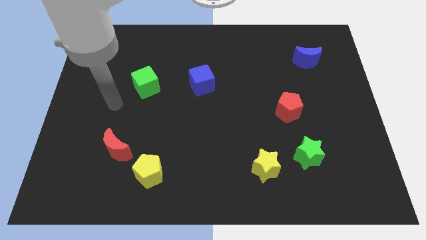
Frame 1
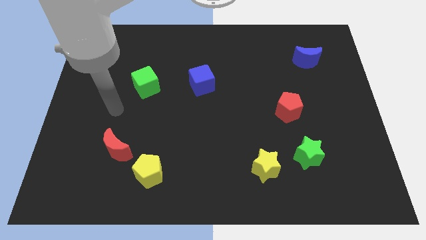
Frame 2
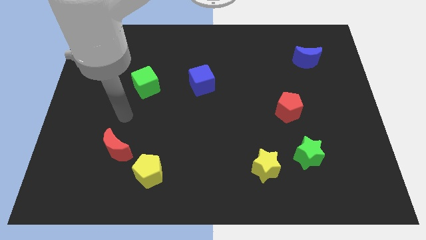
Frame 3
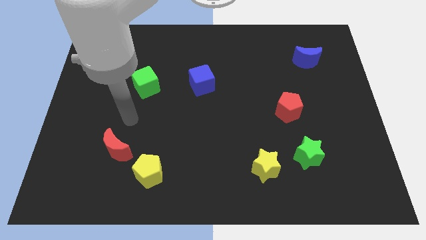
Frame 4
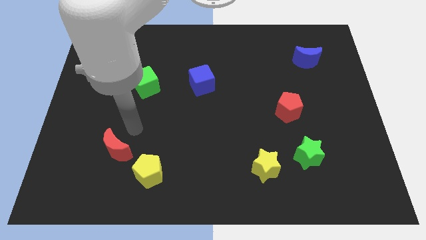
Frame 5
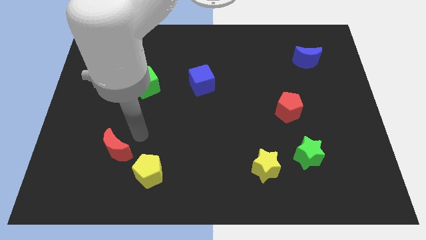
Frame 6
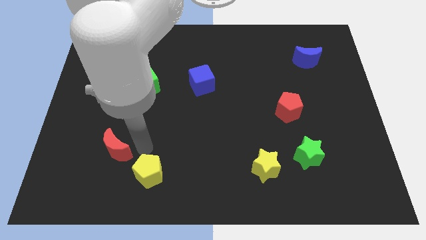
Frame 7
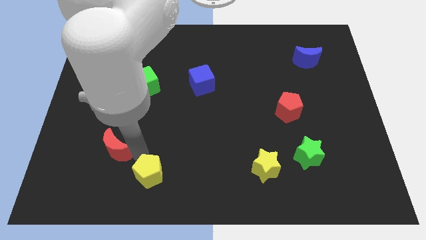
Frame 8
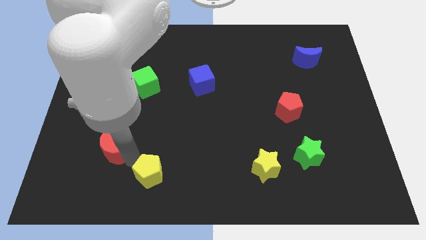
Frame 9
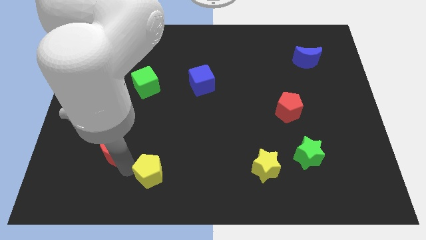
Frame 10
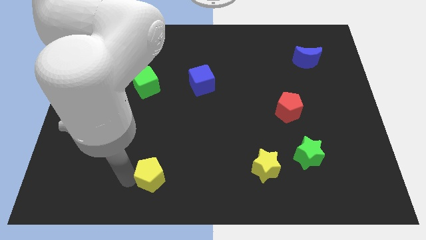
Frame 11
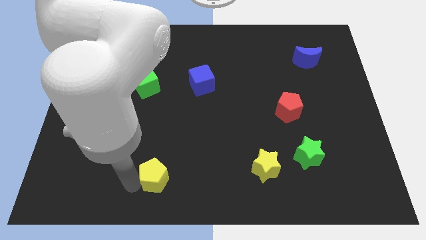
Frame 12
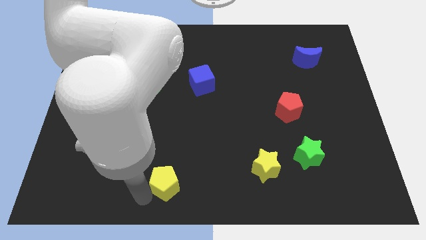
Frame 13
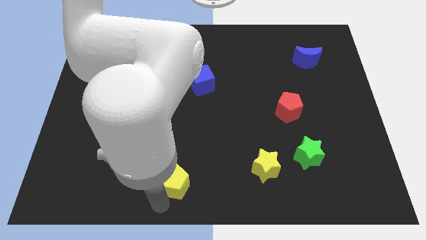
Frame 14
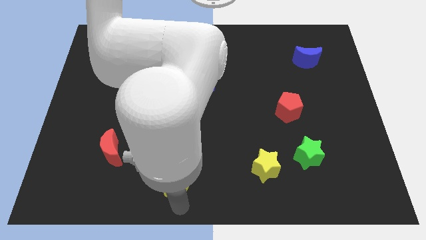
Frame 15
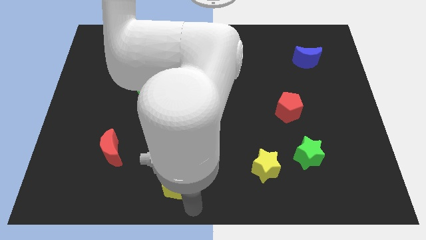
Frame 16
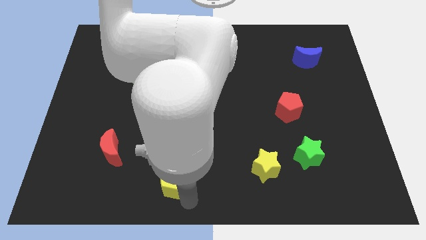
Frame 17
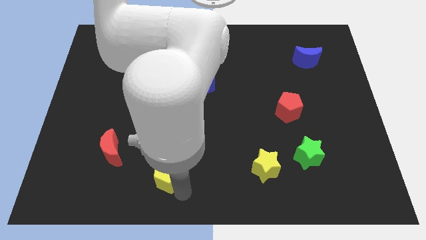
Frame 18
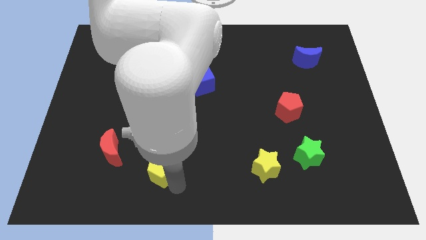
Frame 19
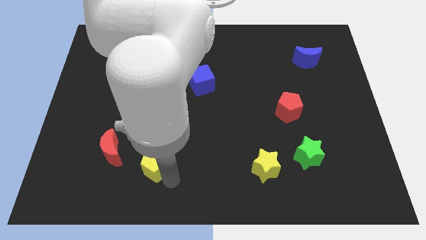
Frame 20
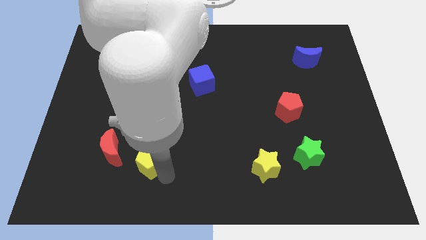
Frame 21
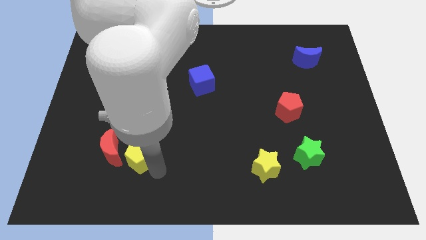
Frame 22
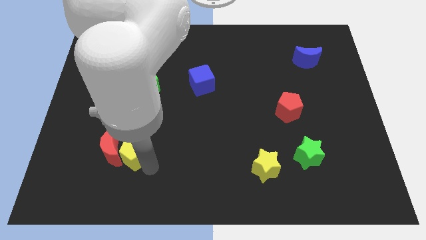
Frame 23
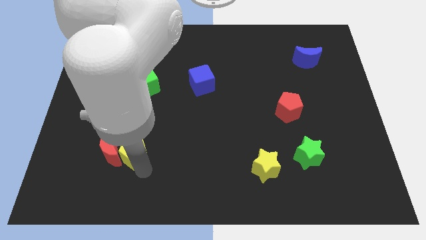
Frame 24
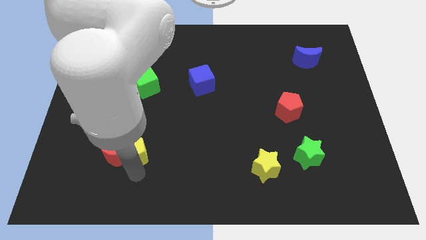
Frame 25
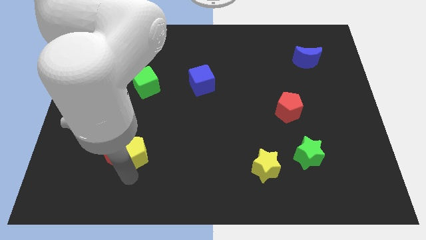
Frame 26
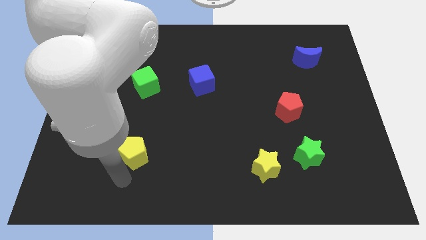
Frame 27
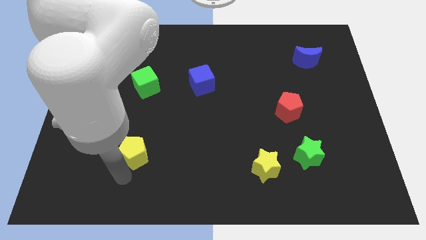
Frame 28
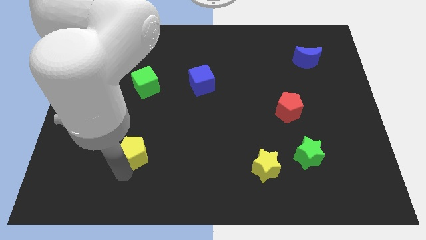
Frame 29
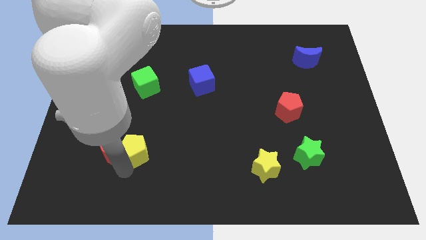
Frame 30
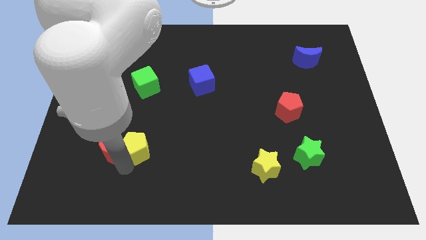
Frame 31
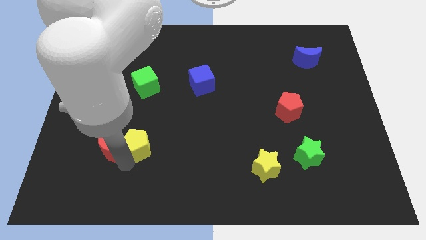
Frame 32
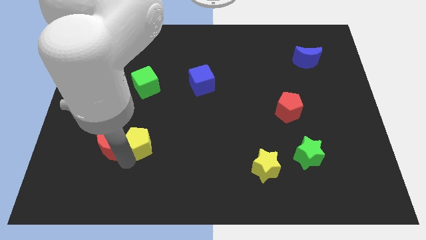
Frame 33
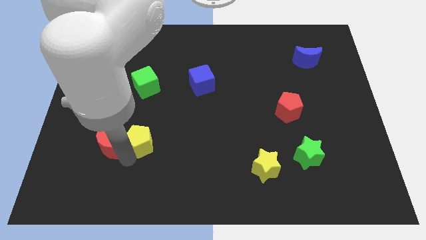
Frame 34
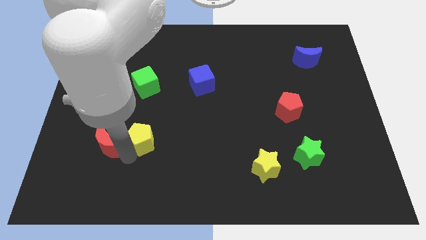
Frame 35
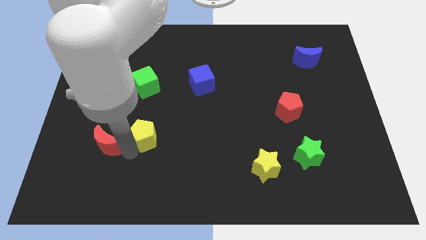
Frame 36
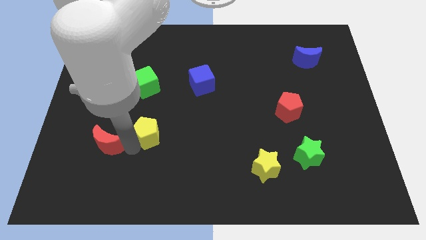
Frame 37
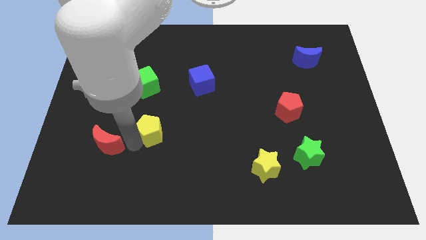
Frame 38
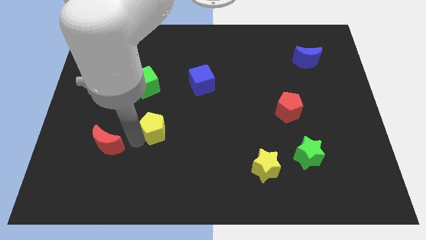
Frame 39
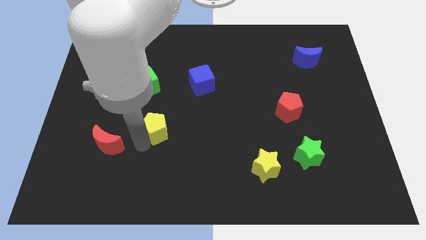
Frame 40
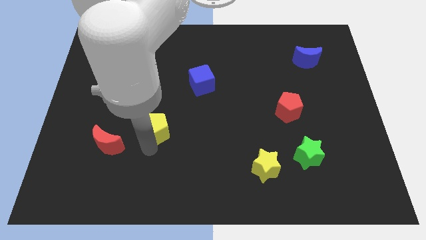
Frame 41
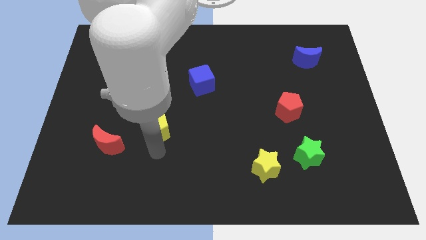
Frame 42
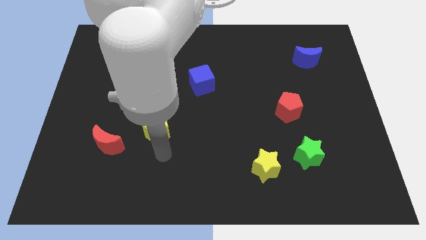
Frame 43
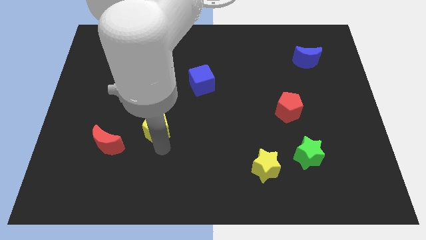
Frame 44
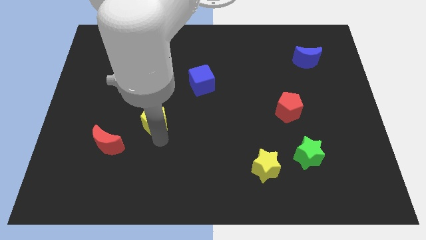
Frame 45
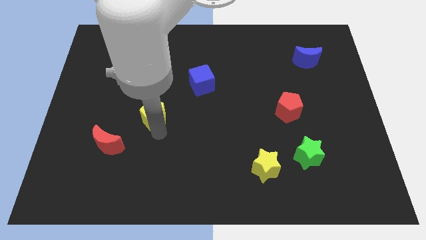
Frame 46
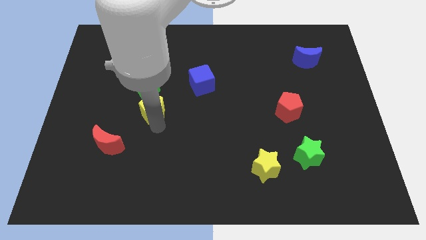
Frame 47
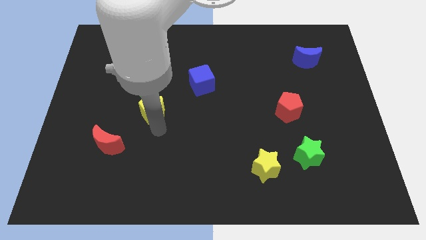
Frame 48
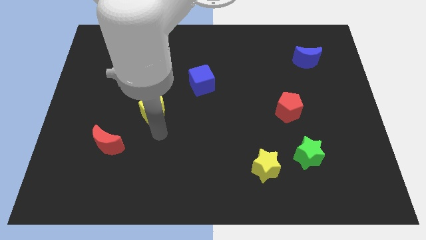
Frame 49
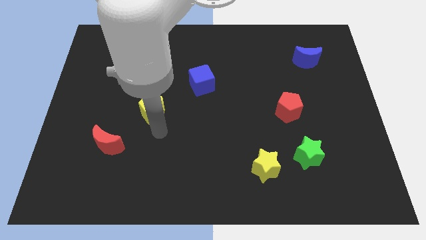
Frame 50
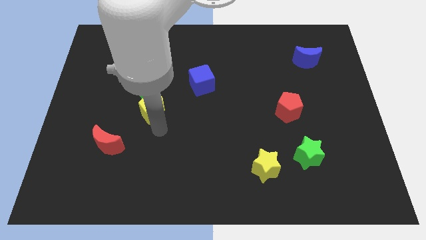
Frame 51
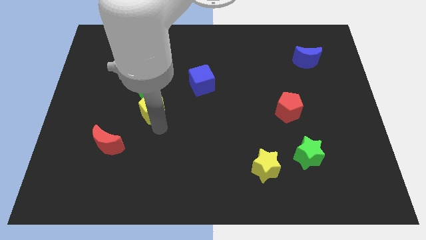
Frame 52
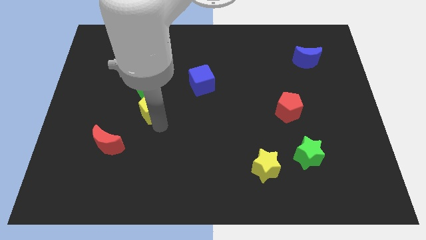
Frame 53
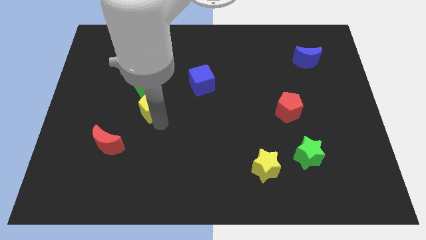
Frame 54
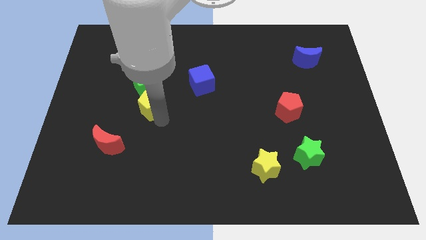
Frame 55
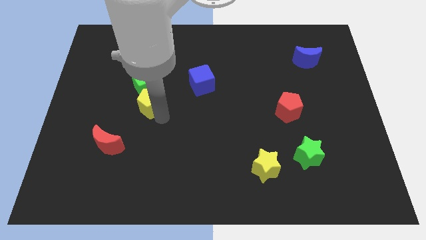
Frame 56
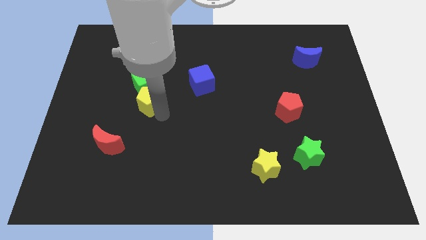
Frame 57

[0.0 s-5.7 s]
push the yellow pentagon next to the green cube

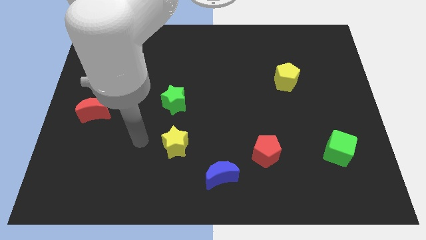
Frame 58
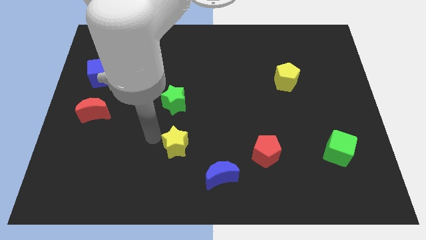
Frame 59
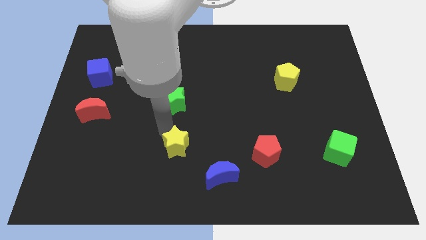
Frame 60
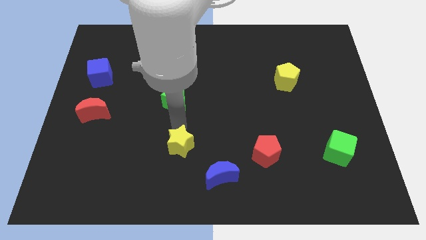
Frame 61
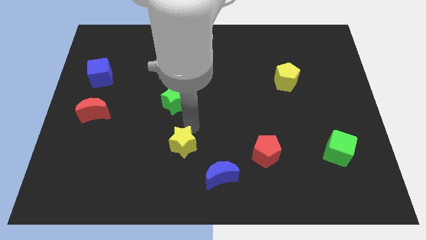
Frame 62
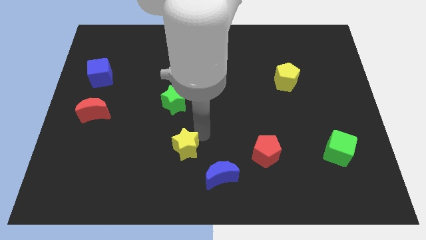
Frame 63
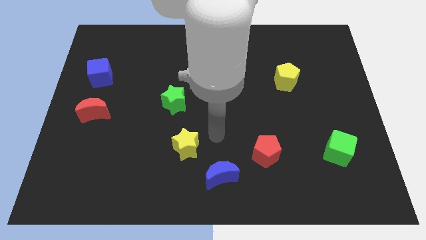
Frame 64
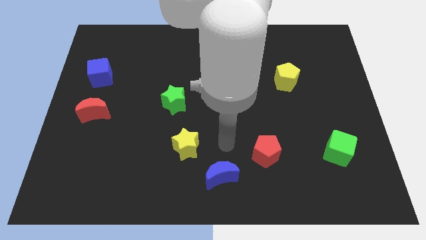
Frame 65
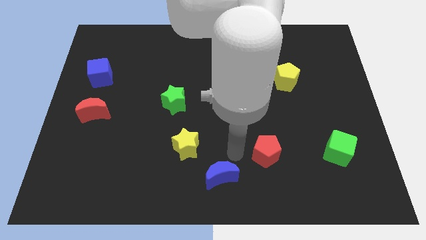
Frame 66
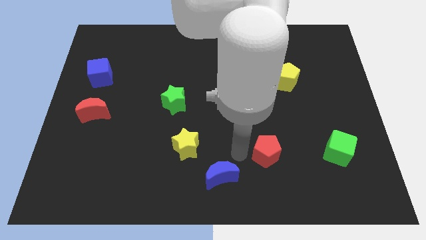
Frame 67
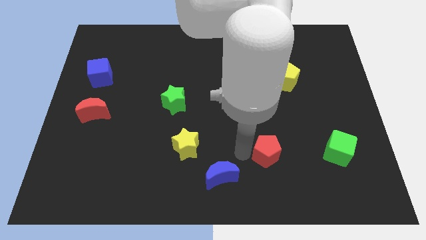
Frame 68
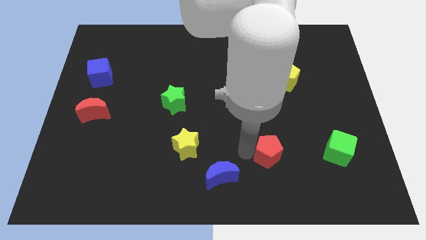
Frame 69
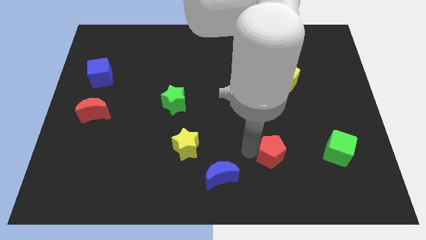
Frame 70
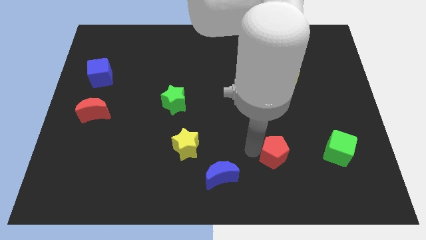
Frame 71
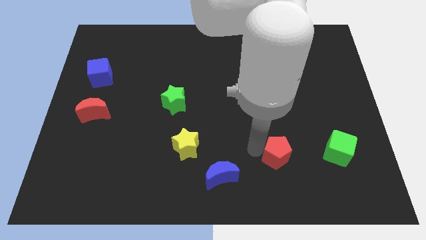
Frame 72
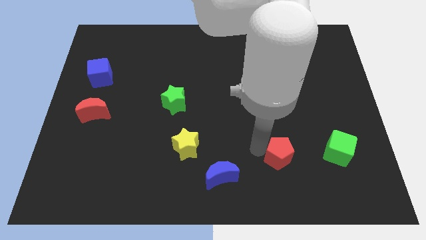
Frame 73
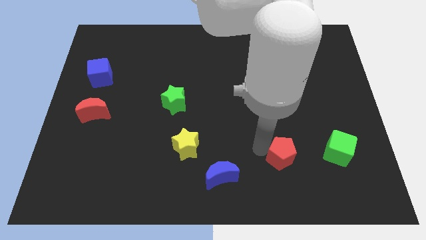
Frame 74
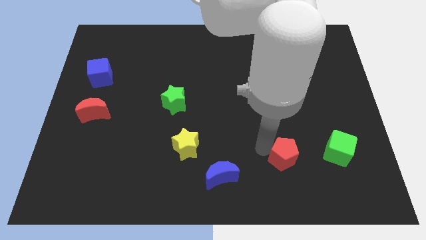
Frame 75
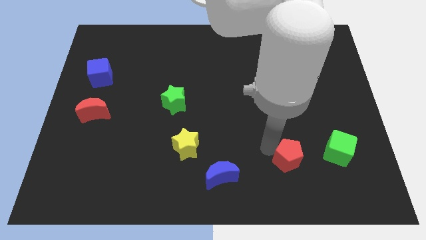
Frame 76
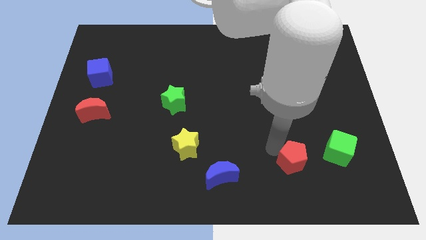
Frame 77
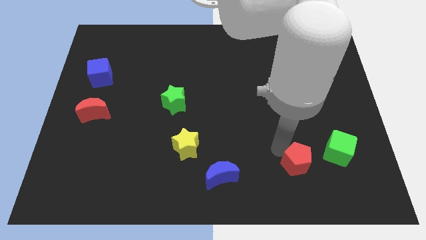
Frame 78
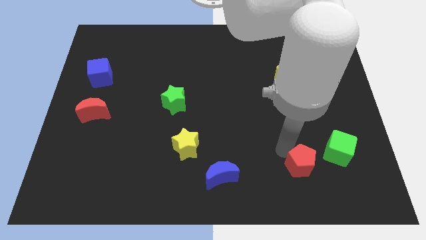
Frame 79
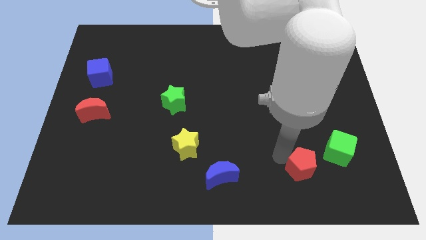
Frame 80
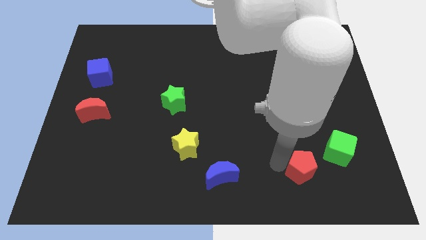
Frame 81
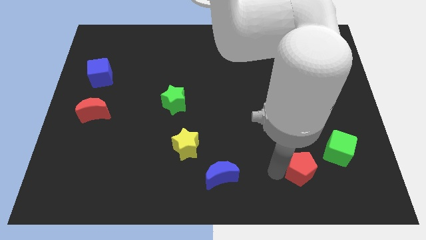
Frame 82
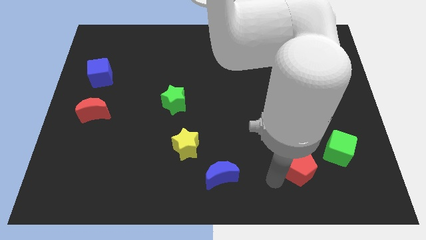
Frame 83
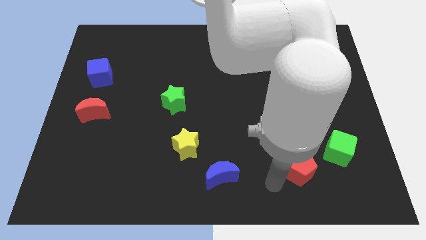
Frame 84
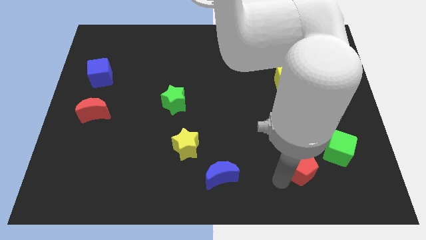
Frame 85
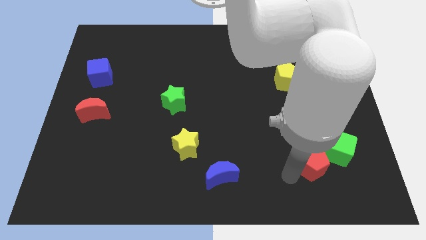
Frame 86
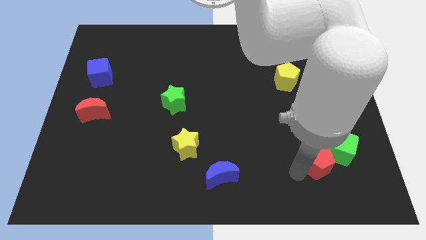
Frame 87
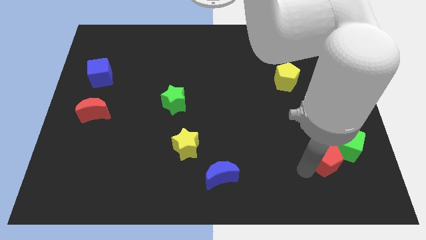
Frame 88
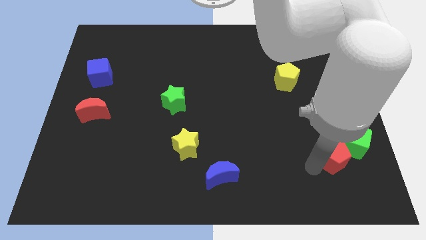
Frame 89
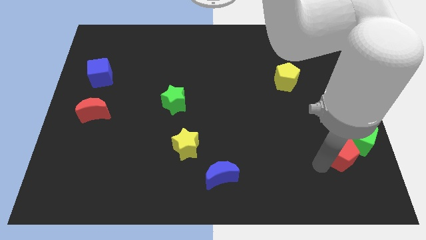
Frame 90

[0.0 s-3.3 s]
slide the red pentagon towards the green cube
